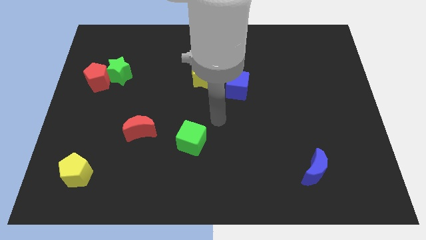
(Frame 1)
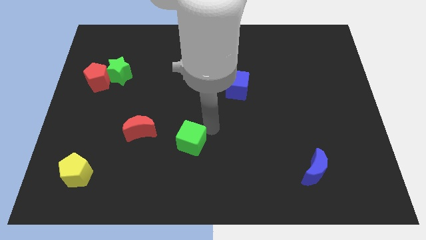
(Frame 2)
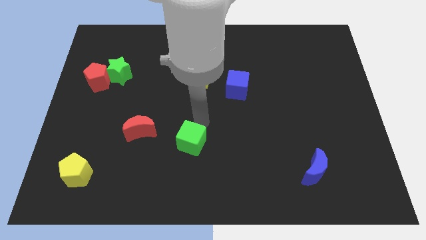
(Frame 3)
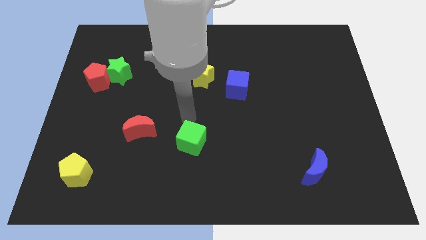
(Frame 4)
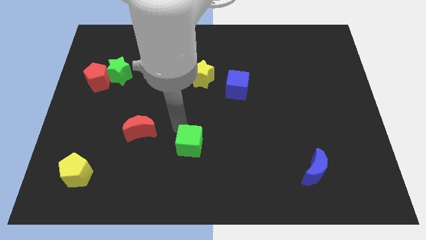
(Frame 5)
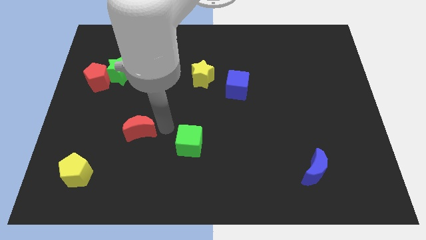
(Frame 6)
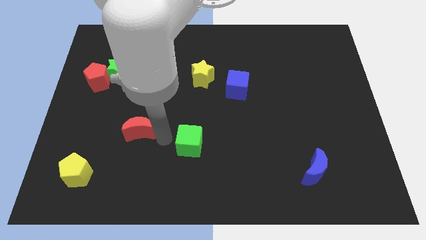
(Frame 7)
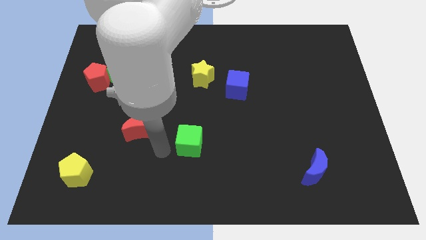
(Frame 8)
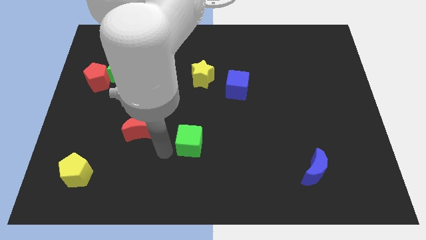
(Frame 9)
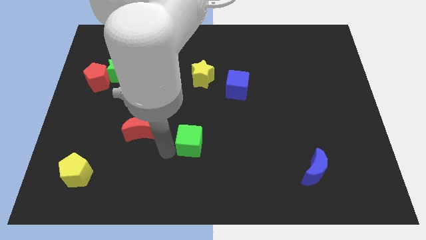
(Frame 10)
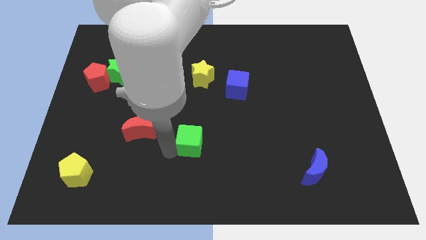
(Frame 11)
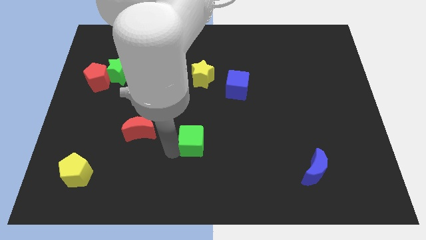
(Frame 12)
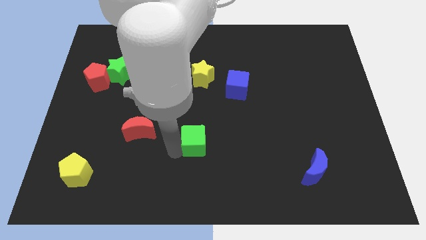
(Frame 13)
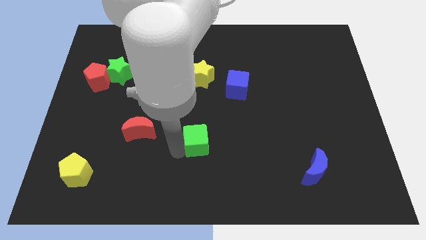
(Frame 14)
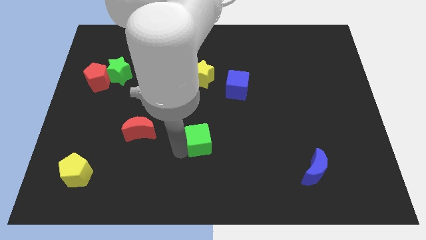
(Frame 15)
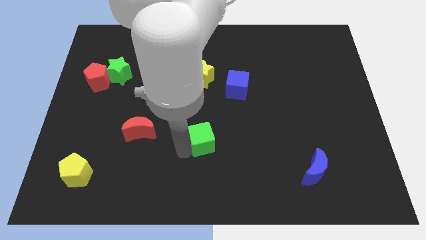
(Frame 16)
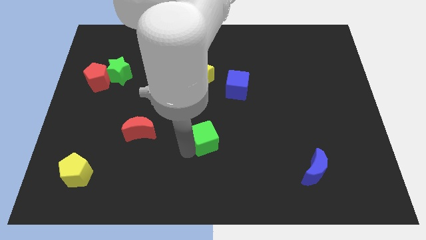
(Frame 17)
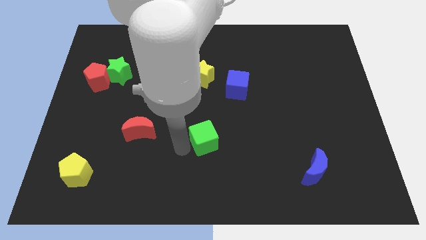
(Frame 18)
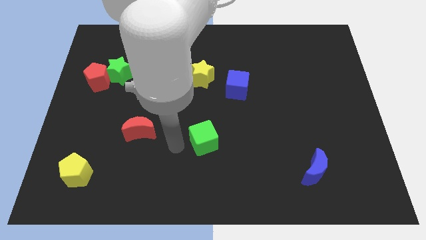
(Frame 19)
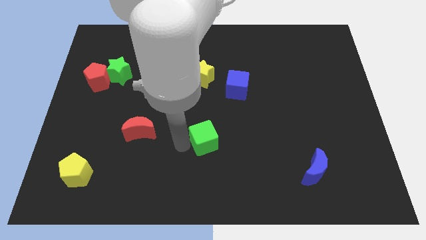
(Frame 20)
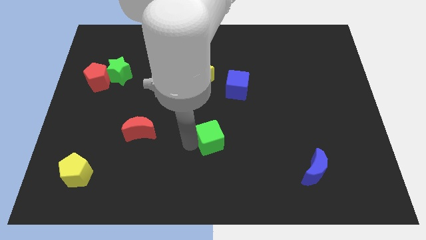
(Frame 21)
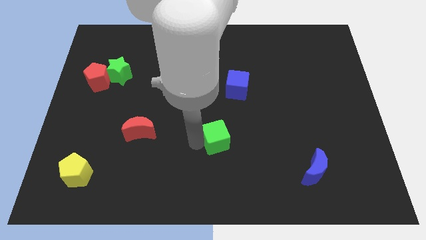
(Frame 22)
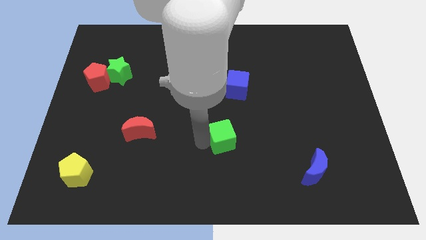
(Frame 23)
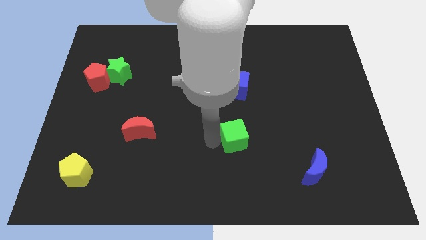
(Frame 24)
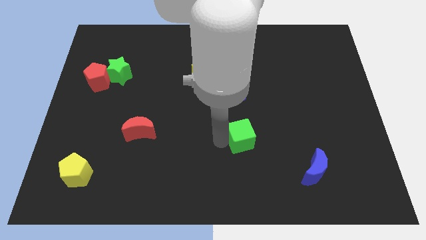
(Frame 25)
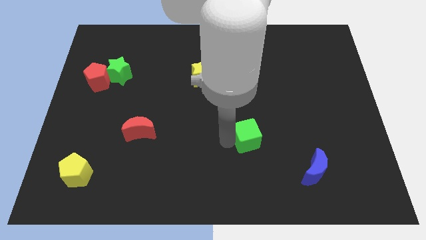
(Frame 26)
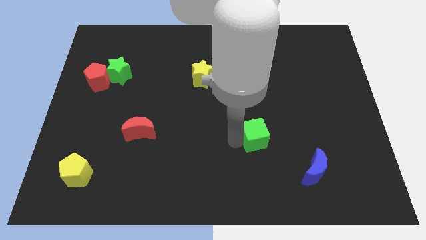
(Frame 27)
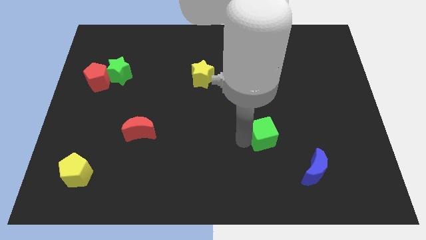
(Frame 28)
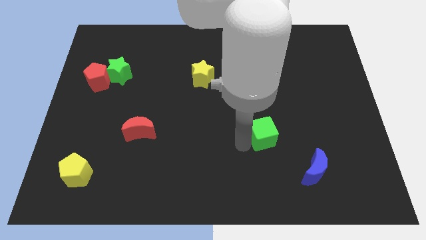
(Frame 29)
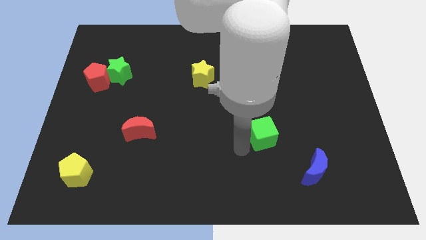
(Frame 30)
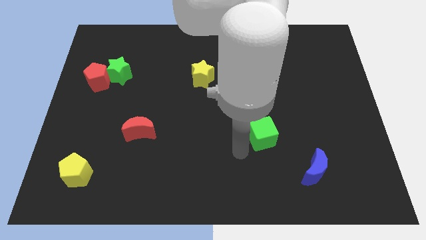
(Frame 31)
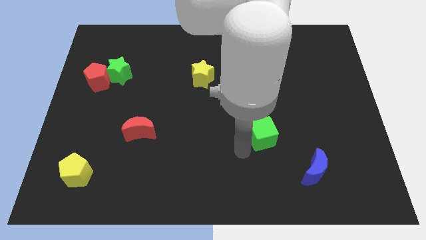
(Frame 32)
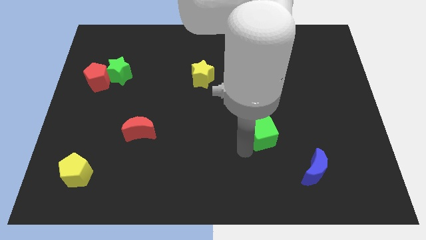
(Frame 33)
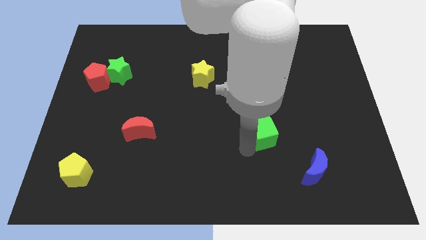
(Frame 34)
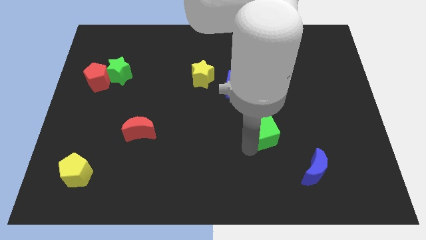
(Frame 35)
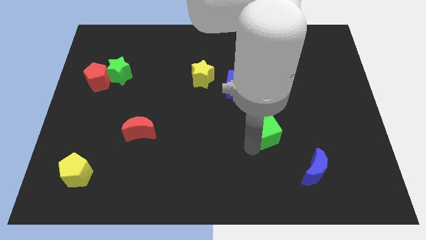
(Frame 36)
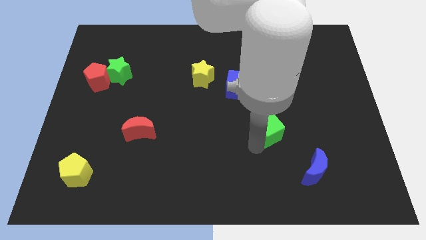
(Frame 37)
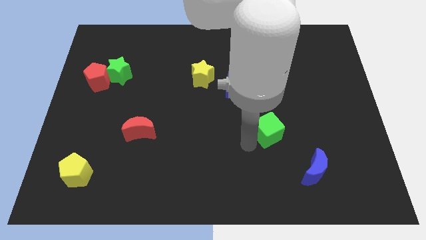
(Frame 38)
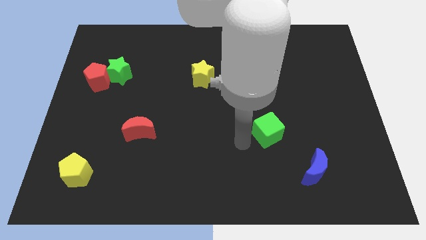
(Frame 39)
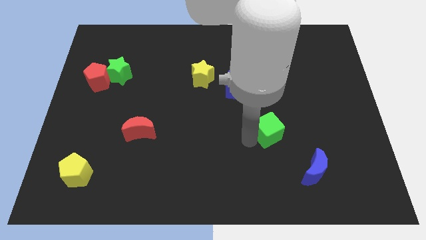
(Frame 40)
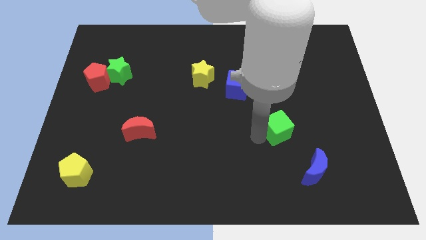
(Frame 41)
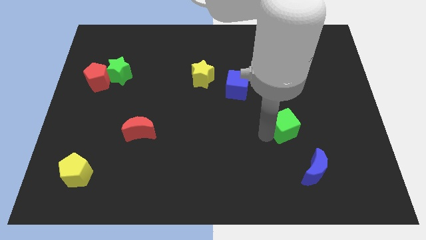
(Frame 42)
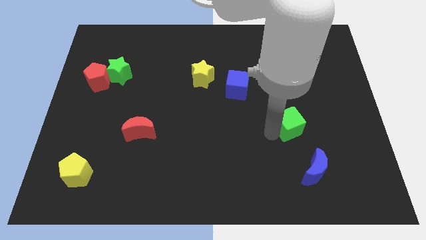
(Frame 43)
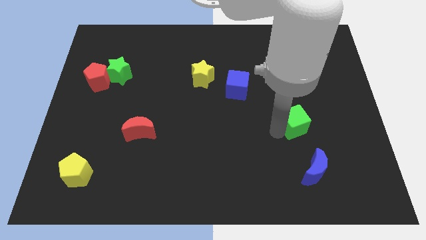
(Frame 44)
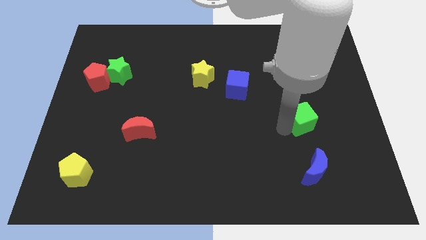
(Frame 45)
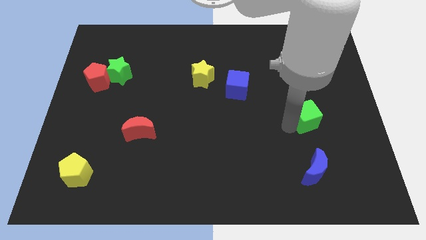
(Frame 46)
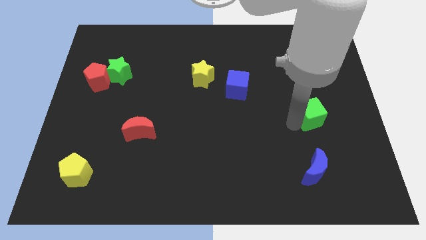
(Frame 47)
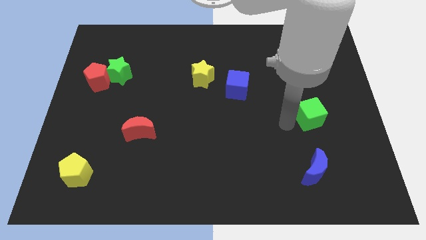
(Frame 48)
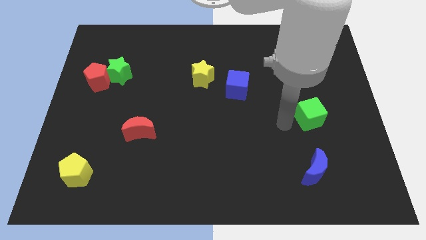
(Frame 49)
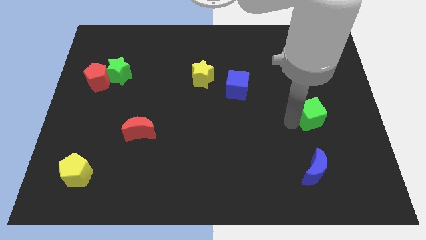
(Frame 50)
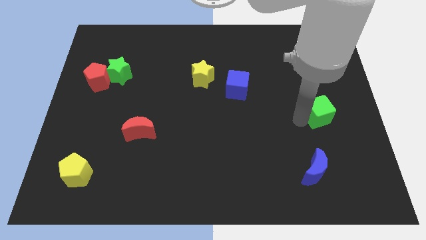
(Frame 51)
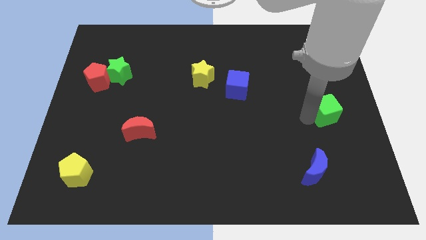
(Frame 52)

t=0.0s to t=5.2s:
put the green cube to the right side

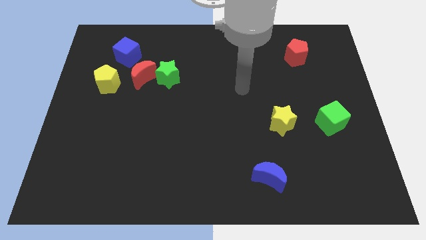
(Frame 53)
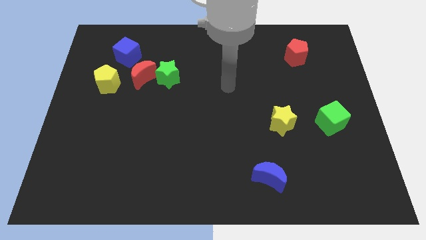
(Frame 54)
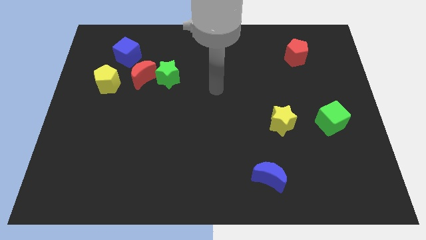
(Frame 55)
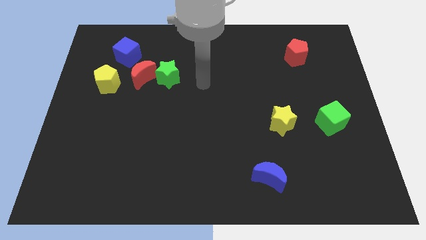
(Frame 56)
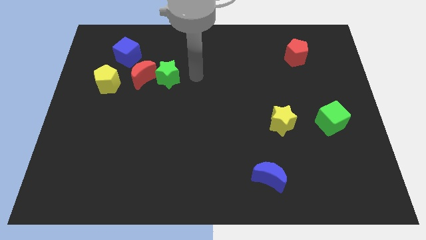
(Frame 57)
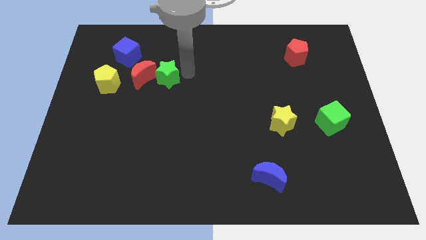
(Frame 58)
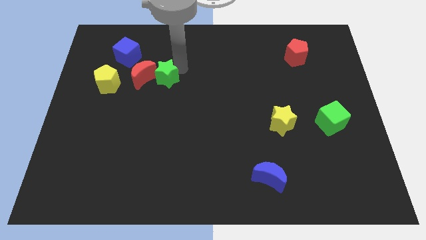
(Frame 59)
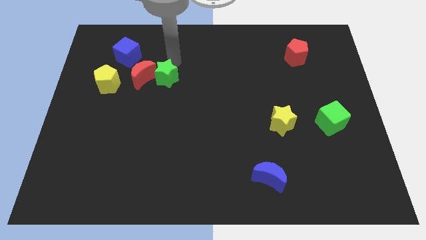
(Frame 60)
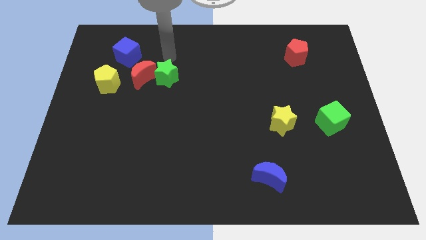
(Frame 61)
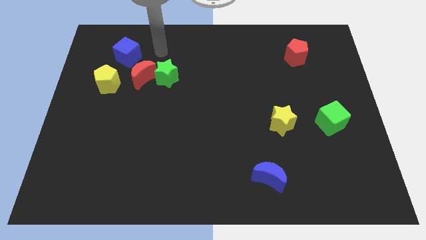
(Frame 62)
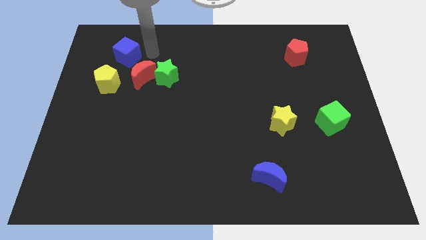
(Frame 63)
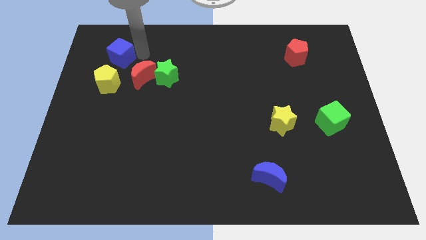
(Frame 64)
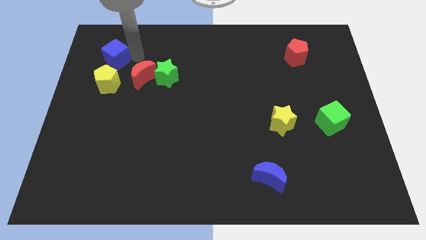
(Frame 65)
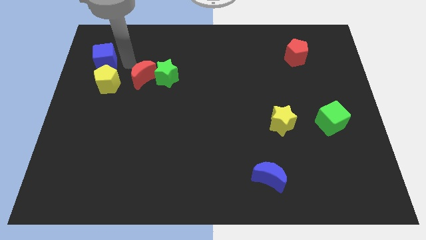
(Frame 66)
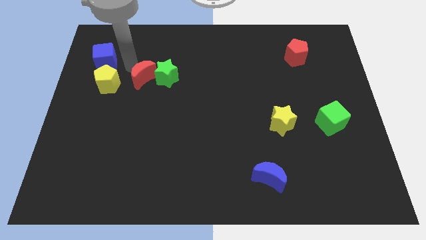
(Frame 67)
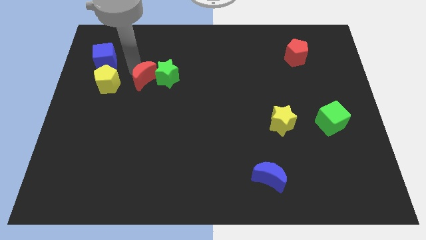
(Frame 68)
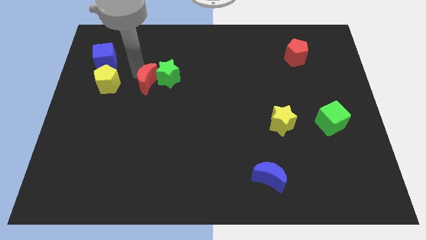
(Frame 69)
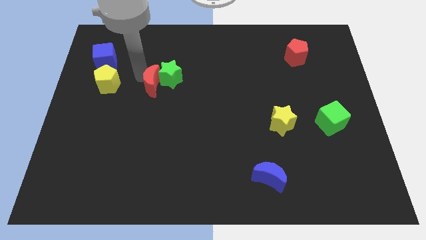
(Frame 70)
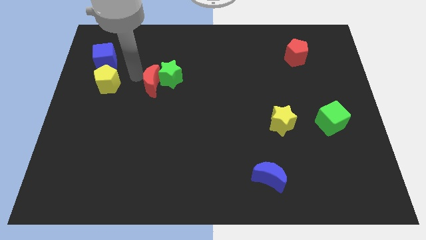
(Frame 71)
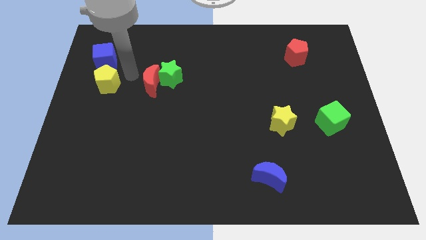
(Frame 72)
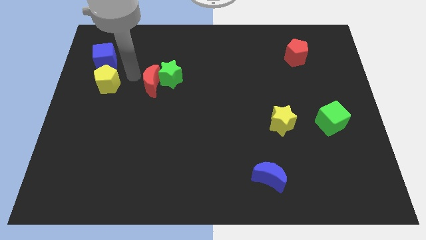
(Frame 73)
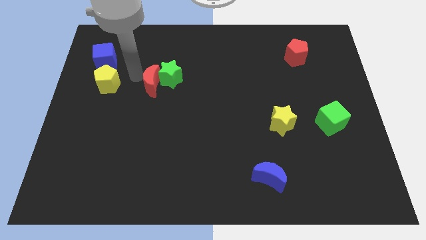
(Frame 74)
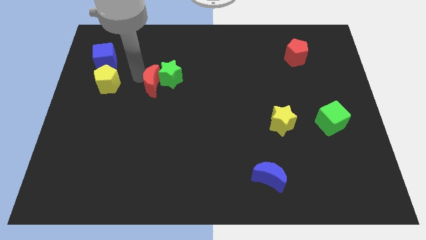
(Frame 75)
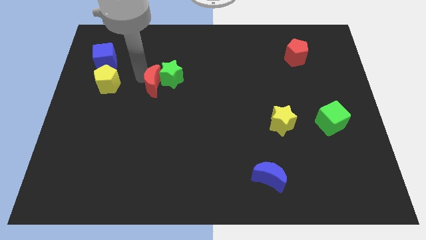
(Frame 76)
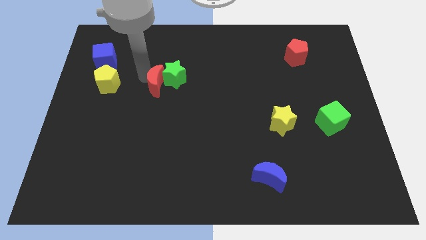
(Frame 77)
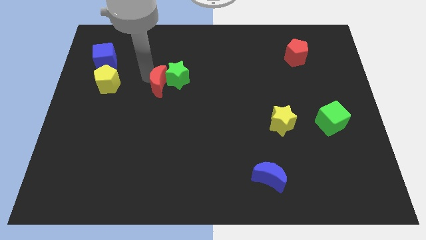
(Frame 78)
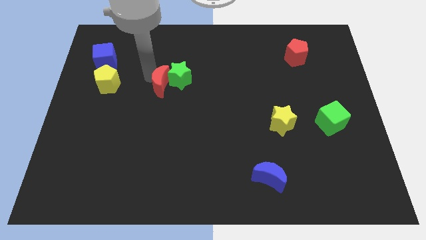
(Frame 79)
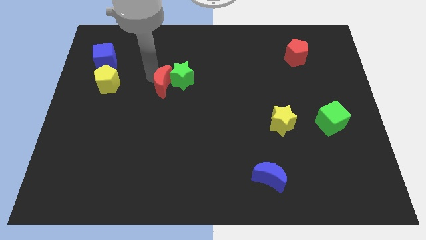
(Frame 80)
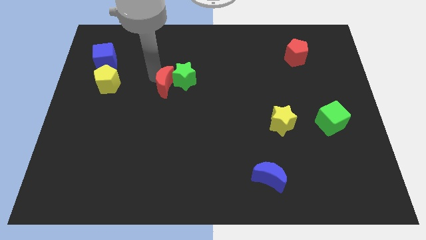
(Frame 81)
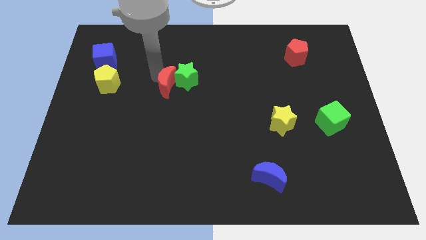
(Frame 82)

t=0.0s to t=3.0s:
push the red moon to the center
